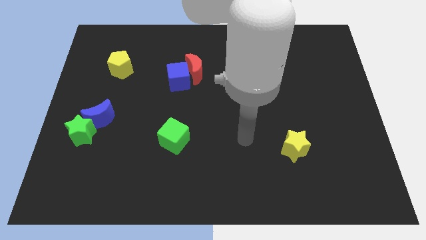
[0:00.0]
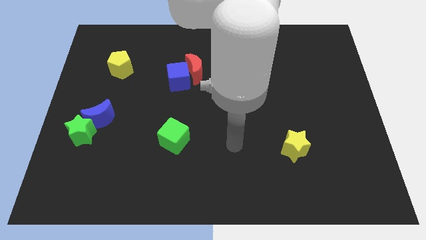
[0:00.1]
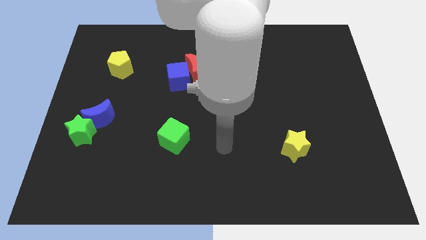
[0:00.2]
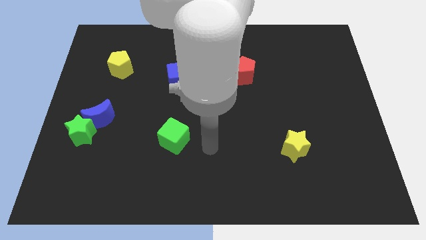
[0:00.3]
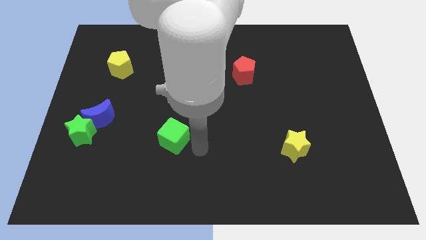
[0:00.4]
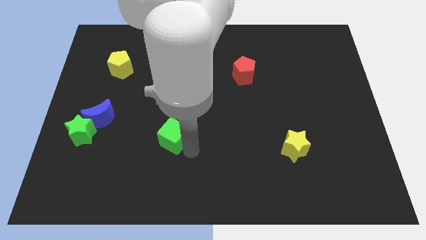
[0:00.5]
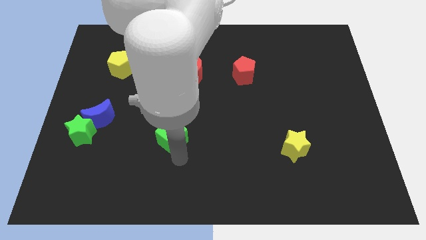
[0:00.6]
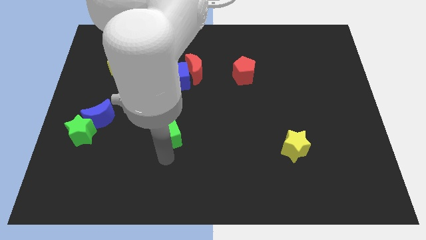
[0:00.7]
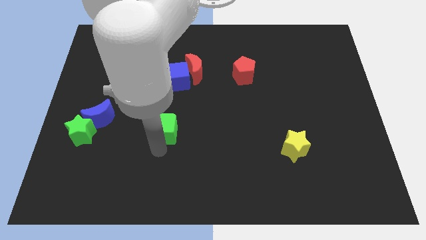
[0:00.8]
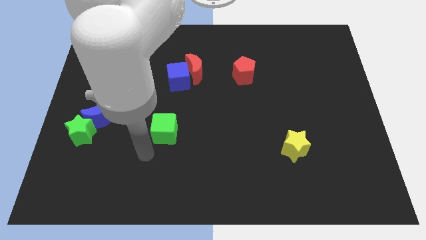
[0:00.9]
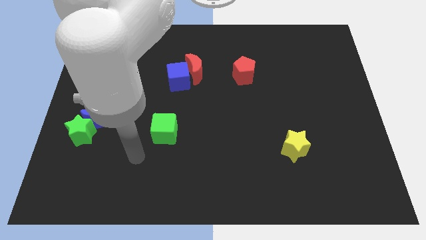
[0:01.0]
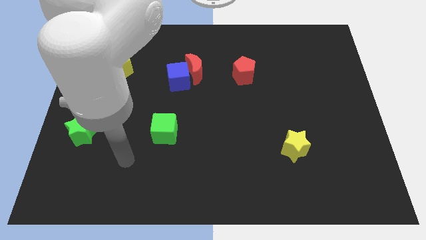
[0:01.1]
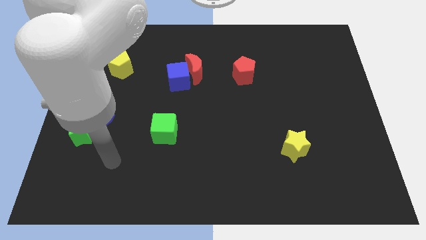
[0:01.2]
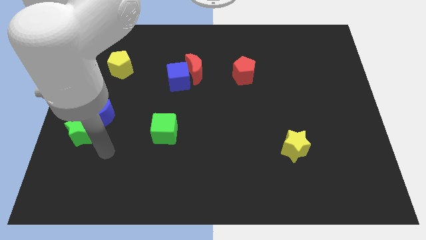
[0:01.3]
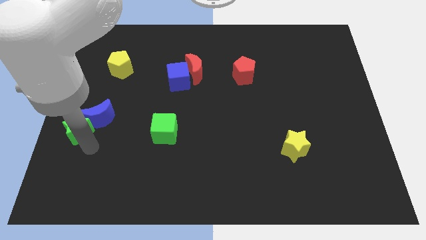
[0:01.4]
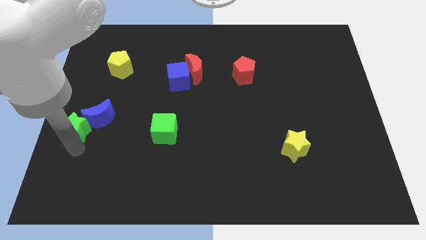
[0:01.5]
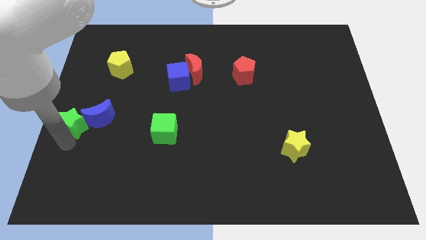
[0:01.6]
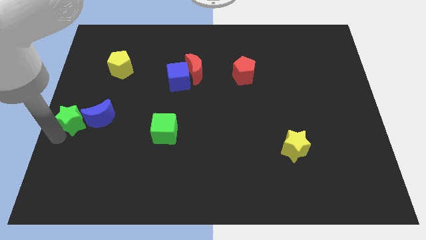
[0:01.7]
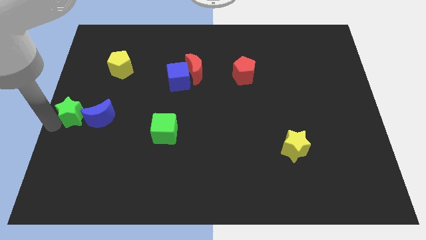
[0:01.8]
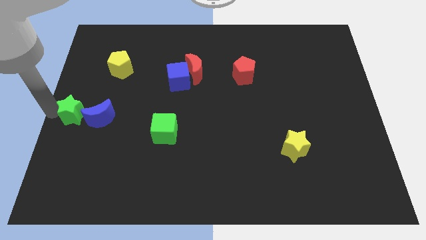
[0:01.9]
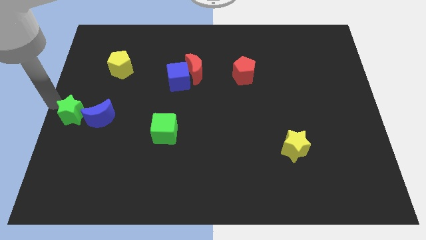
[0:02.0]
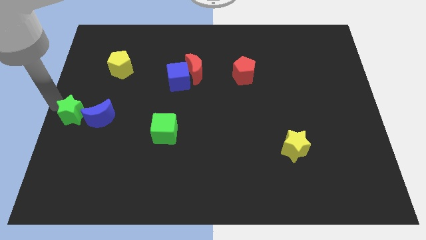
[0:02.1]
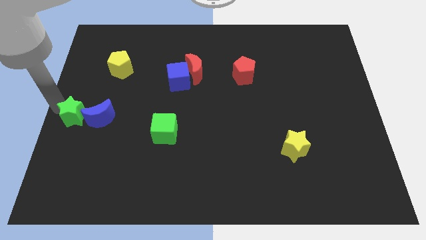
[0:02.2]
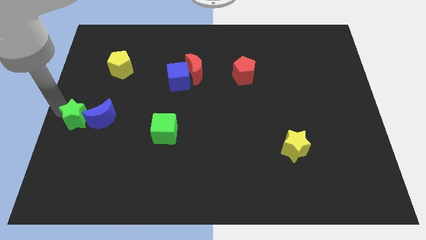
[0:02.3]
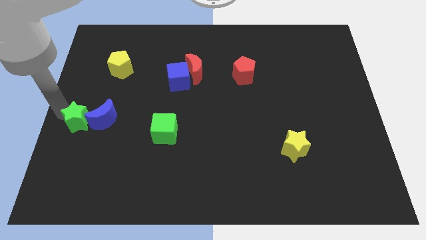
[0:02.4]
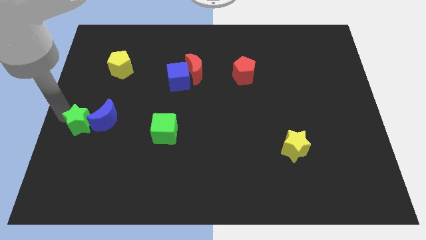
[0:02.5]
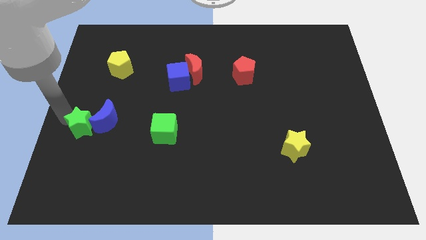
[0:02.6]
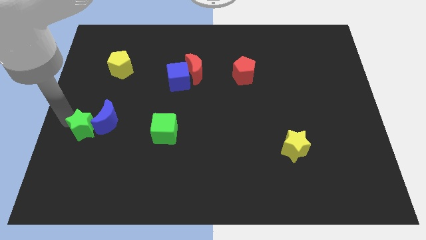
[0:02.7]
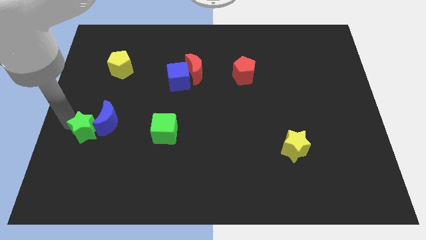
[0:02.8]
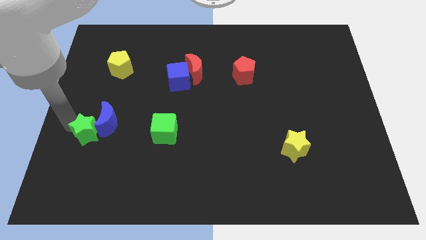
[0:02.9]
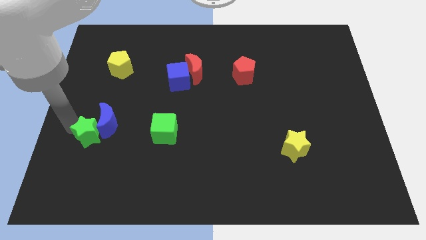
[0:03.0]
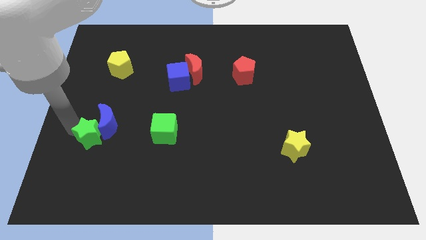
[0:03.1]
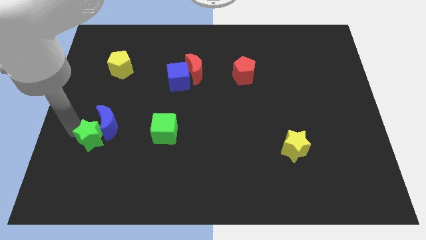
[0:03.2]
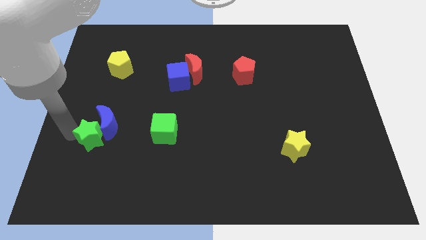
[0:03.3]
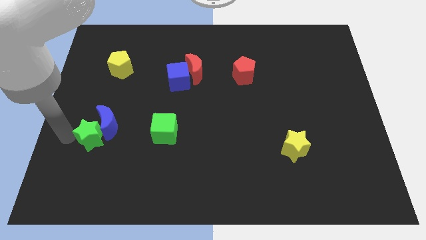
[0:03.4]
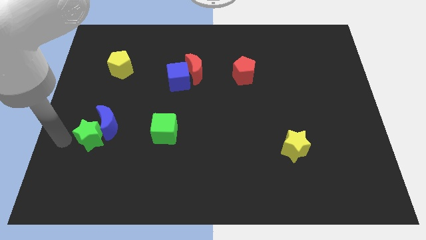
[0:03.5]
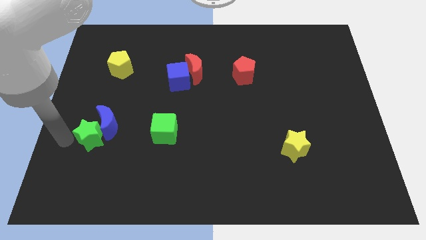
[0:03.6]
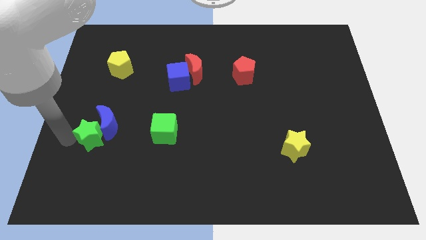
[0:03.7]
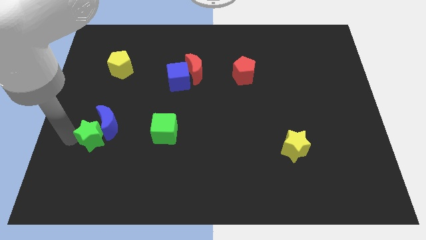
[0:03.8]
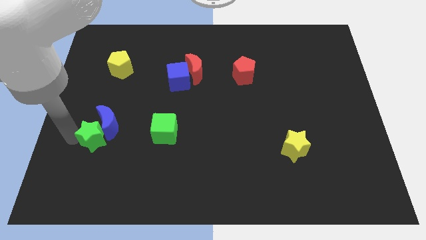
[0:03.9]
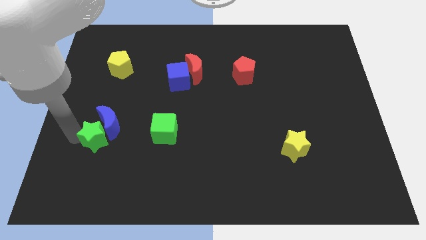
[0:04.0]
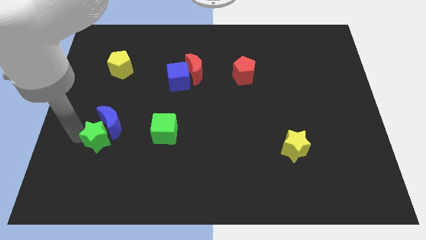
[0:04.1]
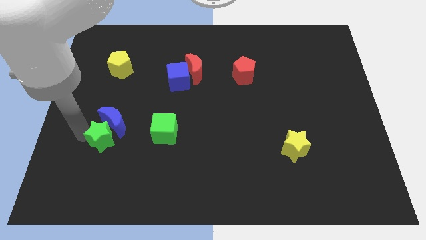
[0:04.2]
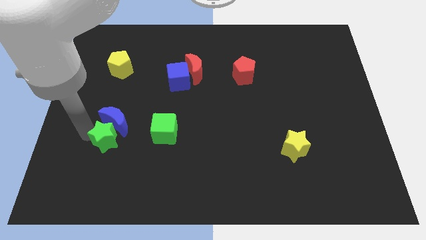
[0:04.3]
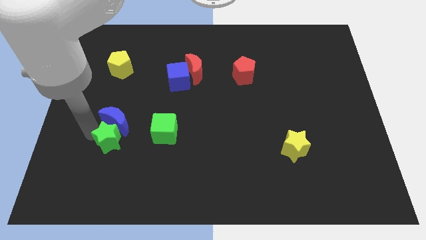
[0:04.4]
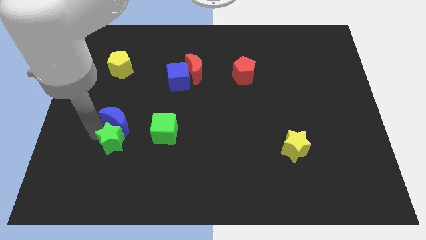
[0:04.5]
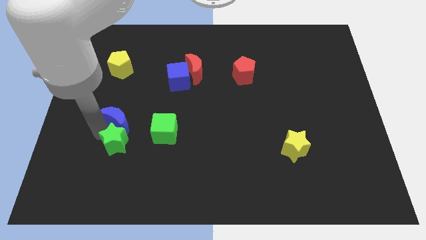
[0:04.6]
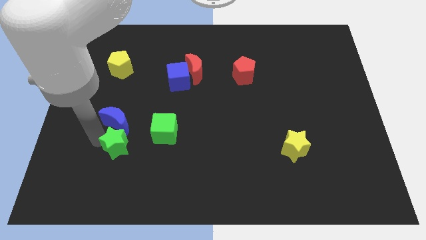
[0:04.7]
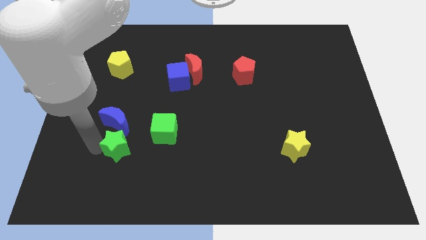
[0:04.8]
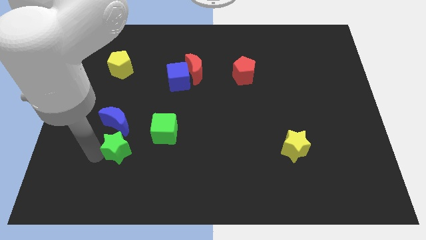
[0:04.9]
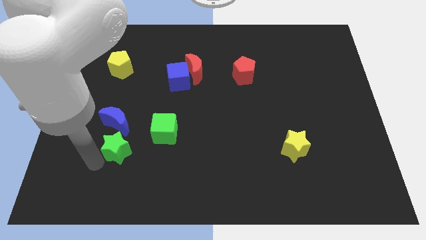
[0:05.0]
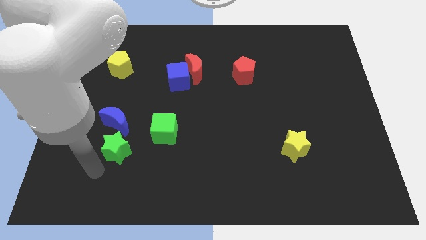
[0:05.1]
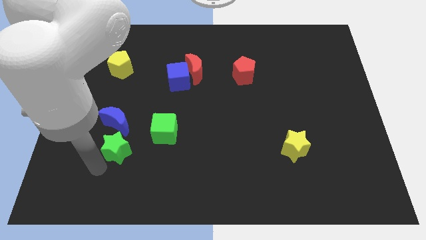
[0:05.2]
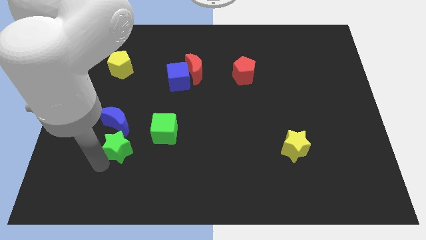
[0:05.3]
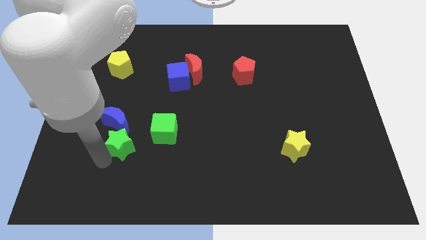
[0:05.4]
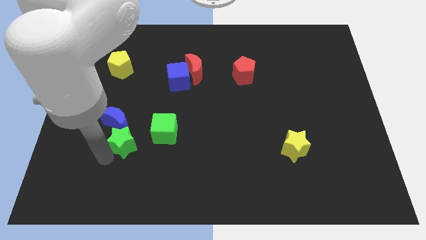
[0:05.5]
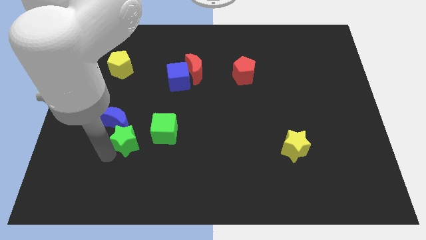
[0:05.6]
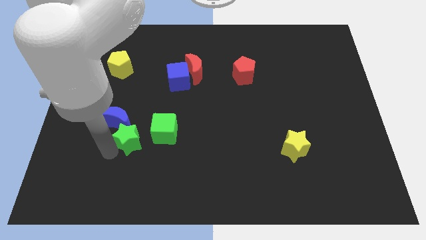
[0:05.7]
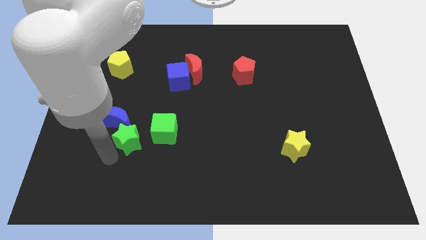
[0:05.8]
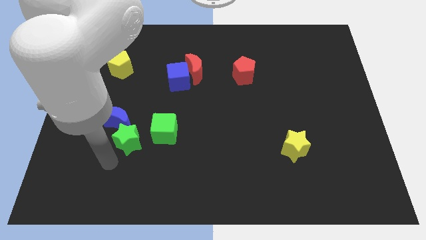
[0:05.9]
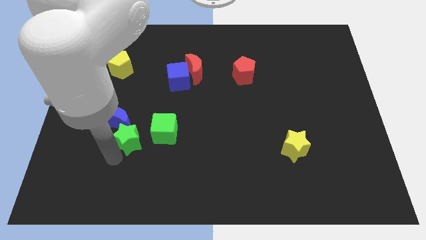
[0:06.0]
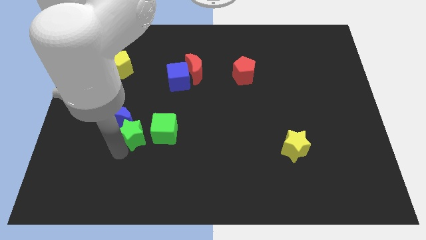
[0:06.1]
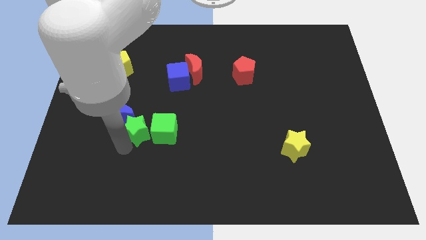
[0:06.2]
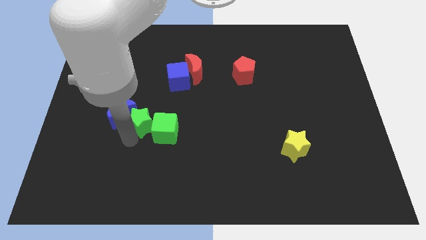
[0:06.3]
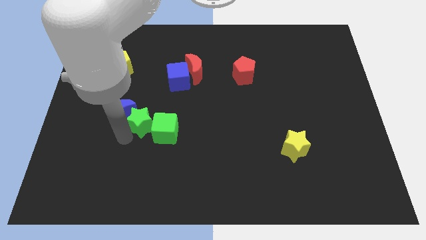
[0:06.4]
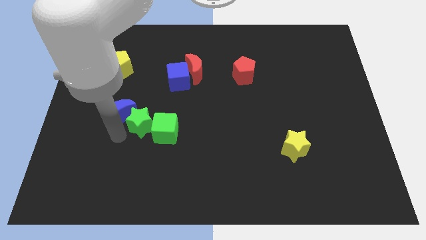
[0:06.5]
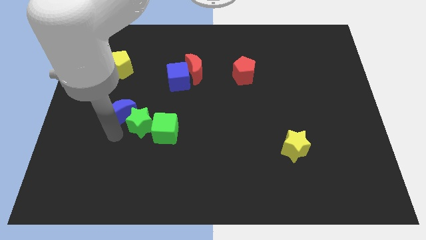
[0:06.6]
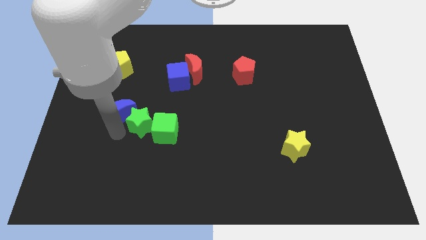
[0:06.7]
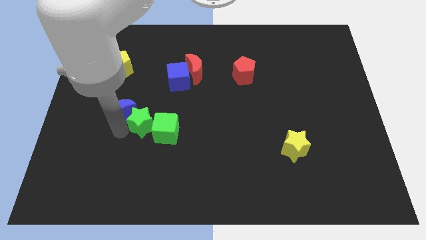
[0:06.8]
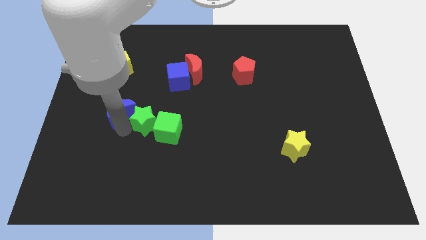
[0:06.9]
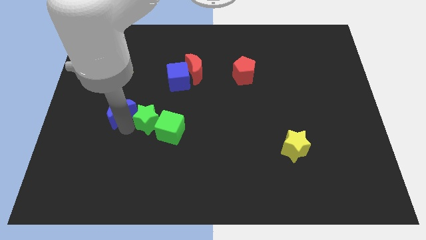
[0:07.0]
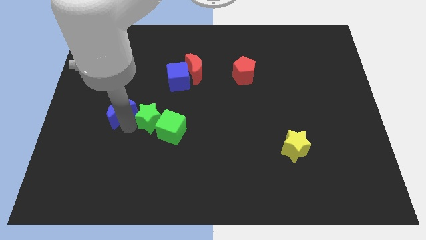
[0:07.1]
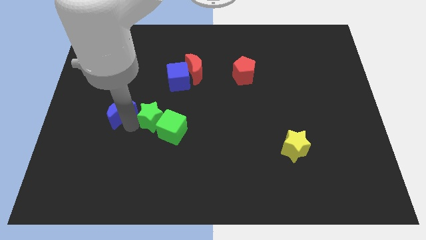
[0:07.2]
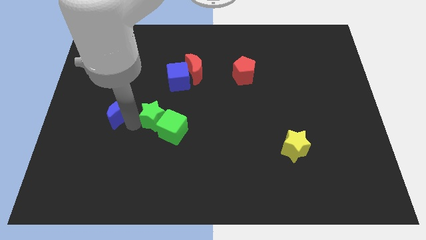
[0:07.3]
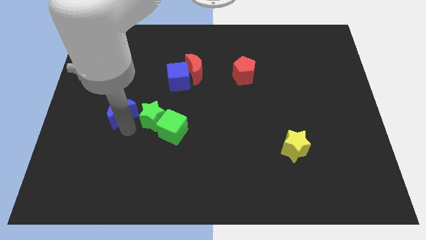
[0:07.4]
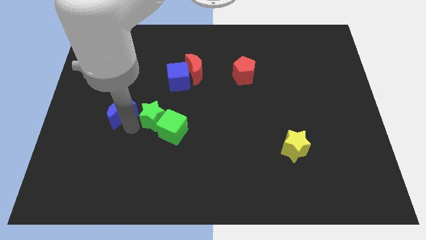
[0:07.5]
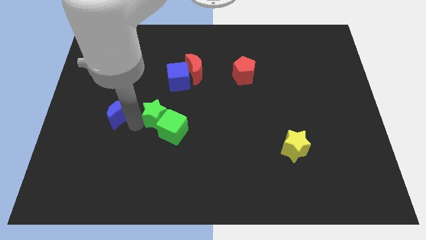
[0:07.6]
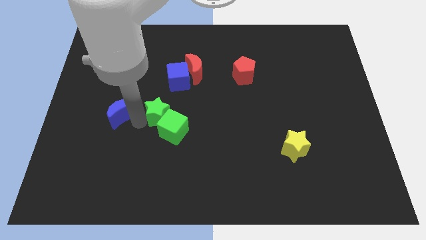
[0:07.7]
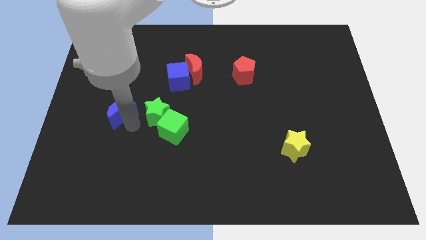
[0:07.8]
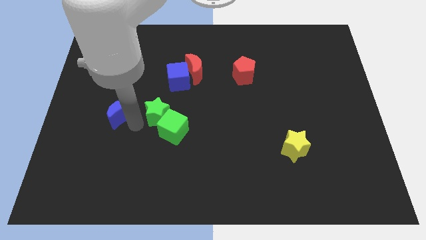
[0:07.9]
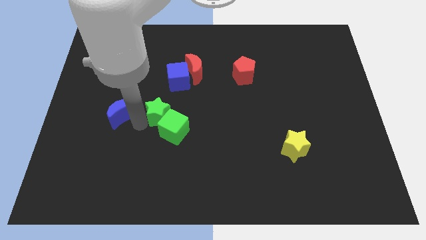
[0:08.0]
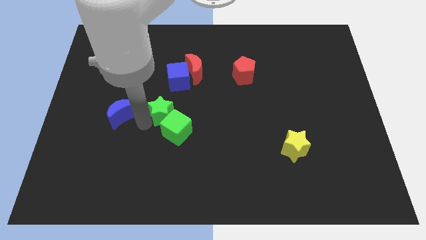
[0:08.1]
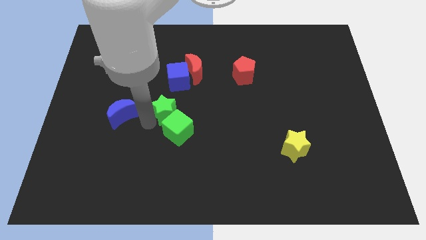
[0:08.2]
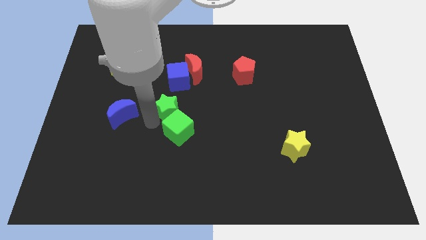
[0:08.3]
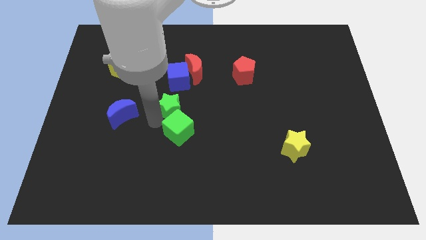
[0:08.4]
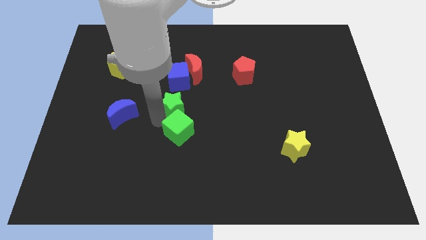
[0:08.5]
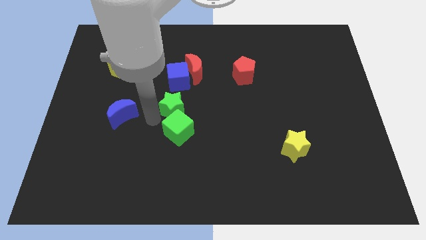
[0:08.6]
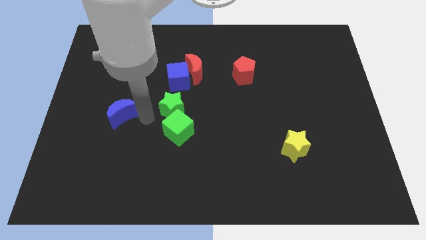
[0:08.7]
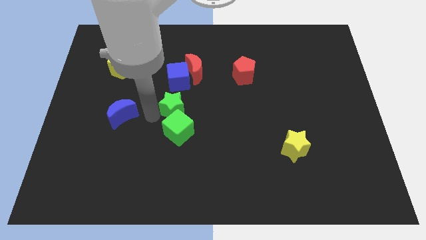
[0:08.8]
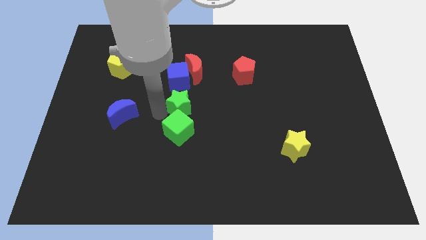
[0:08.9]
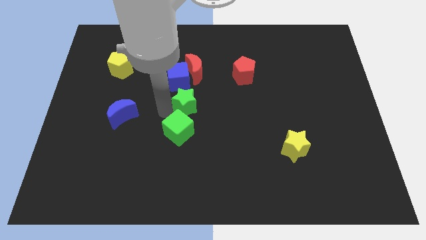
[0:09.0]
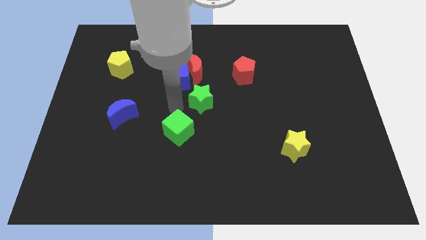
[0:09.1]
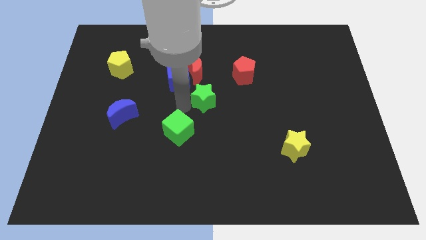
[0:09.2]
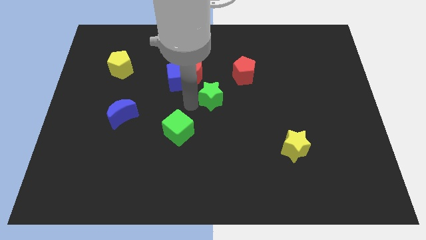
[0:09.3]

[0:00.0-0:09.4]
put the green star diagonally down and to the left of the red pentagon
